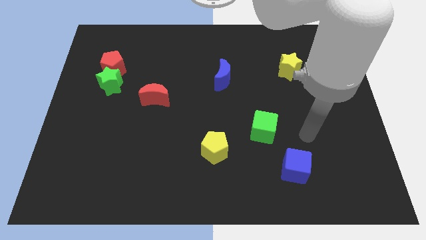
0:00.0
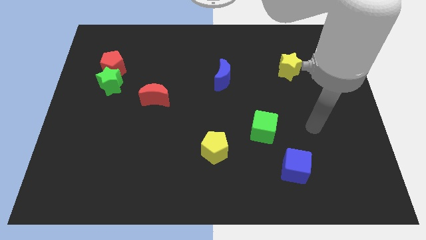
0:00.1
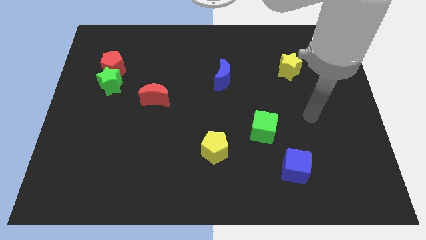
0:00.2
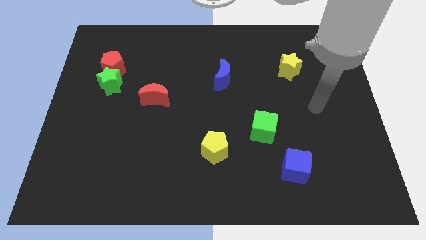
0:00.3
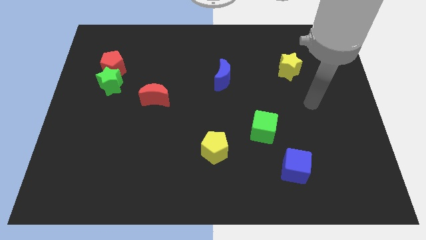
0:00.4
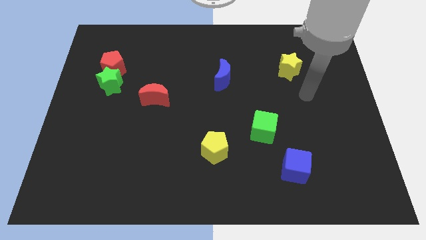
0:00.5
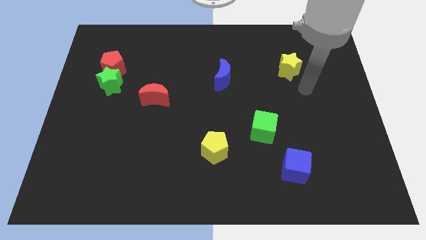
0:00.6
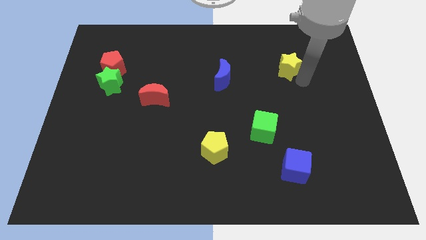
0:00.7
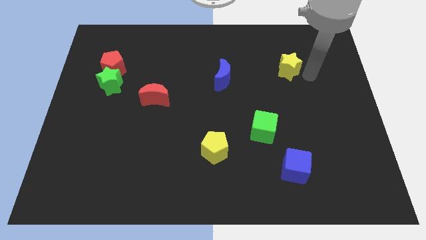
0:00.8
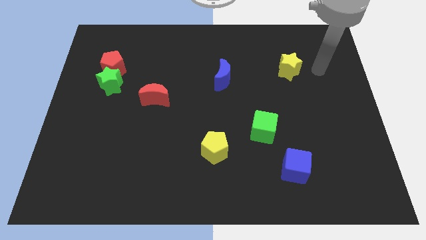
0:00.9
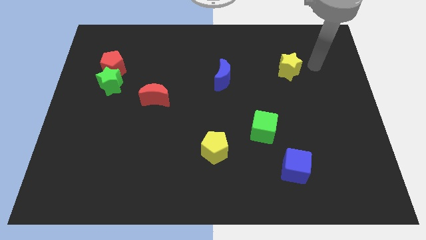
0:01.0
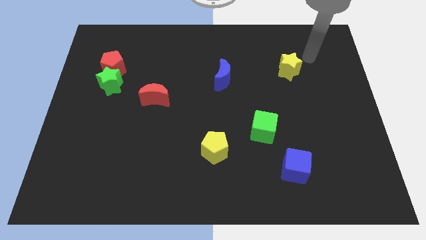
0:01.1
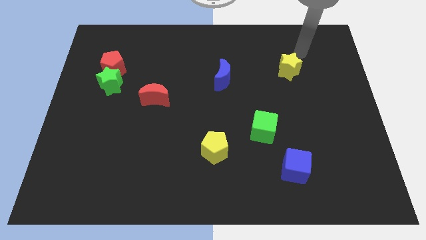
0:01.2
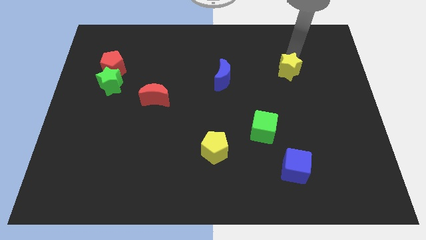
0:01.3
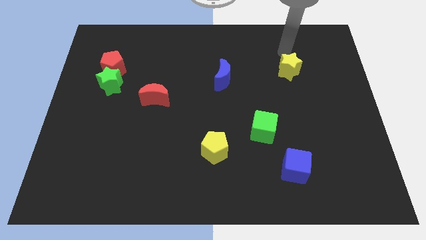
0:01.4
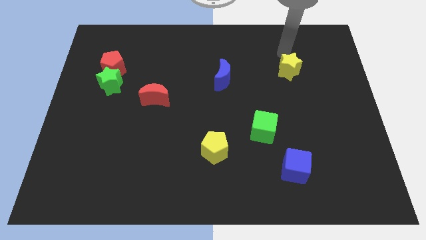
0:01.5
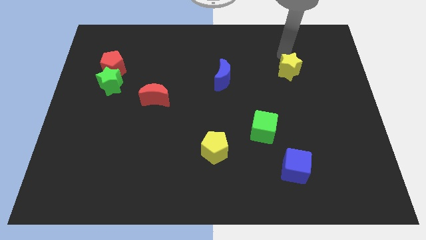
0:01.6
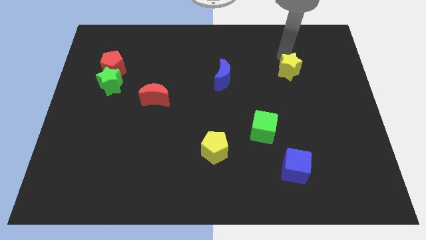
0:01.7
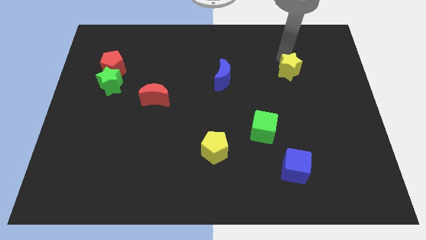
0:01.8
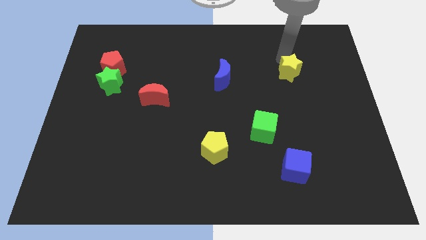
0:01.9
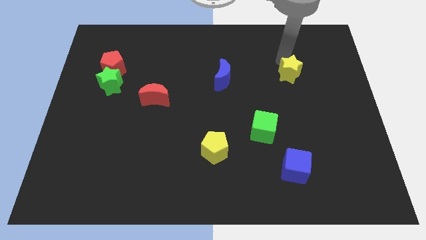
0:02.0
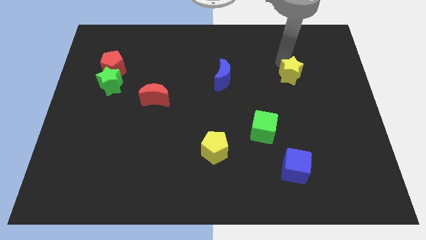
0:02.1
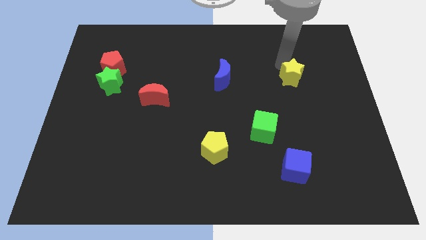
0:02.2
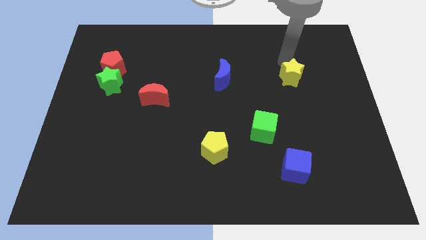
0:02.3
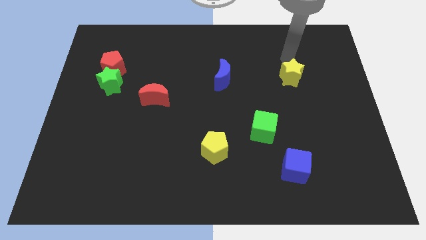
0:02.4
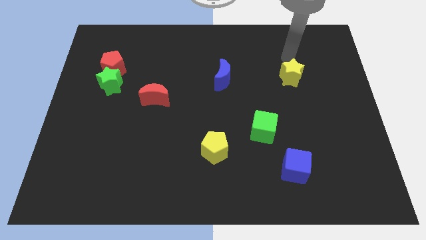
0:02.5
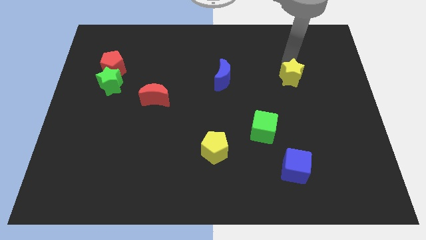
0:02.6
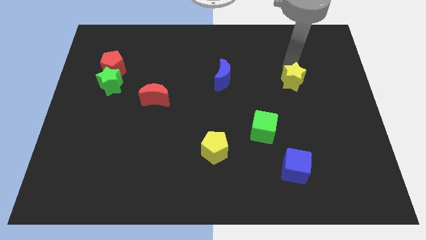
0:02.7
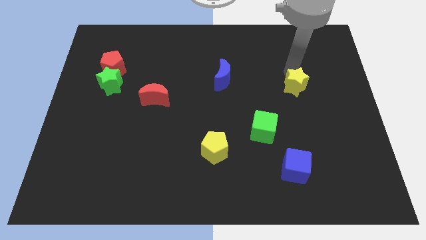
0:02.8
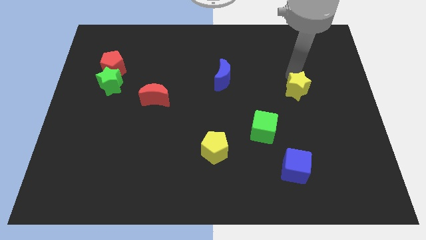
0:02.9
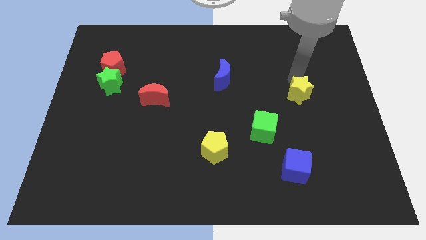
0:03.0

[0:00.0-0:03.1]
slightly slide the yellow star downwards

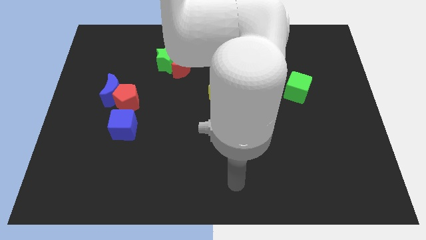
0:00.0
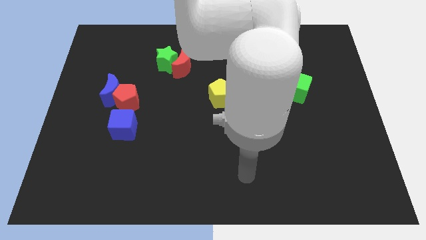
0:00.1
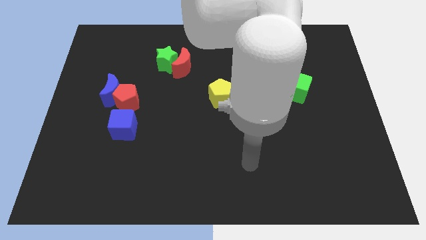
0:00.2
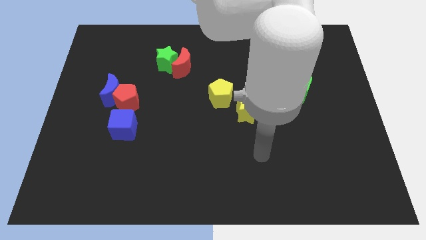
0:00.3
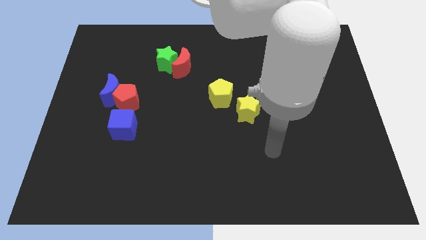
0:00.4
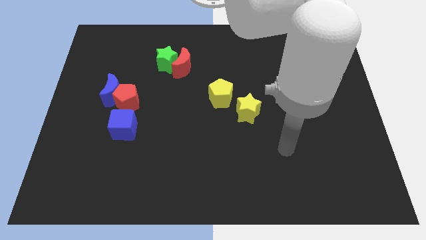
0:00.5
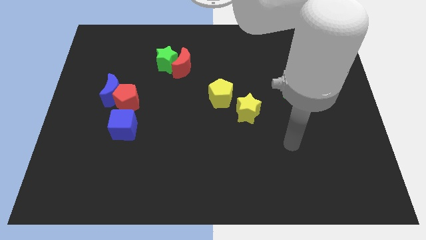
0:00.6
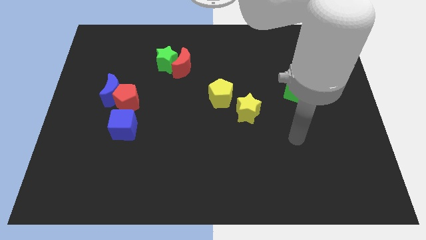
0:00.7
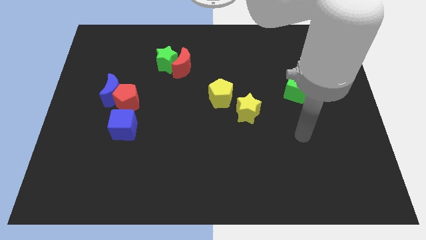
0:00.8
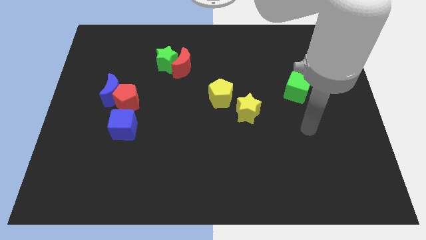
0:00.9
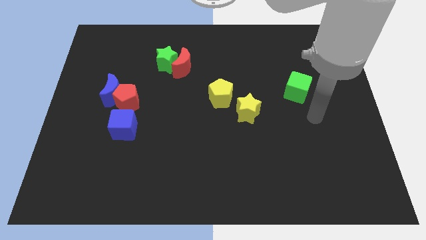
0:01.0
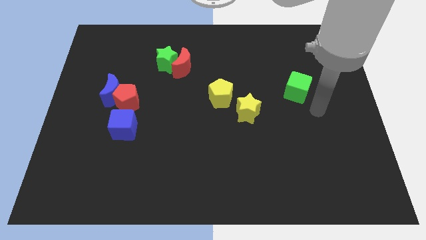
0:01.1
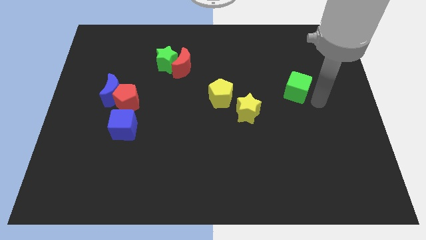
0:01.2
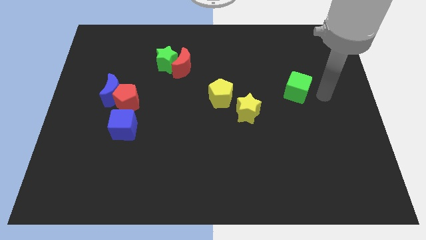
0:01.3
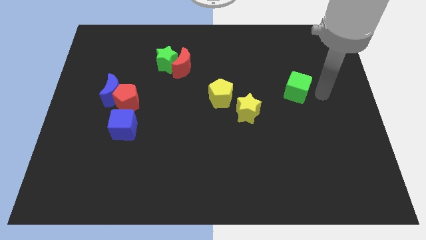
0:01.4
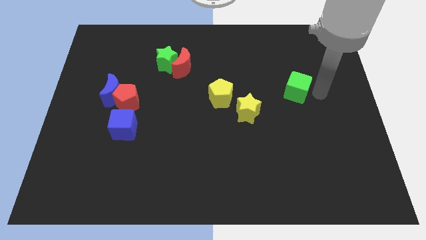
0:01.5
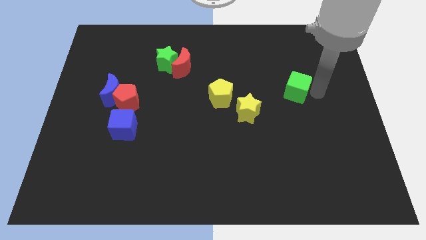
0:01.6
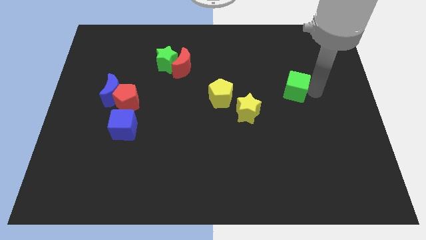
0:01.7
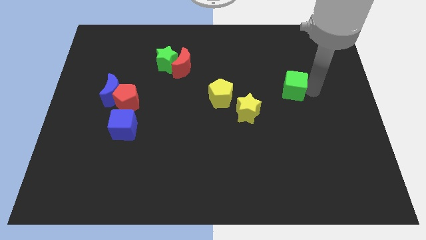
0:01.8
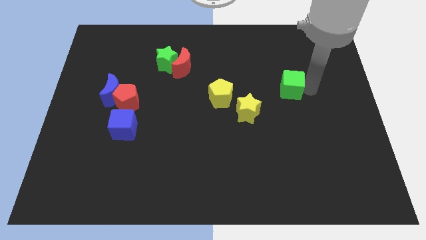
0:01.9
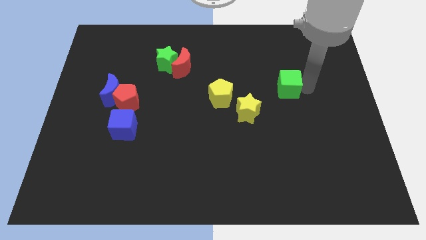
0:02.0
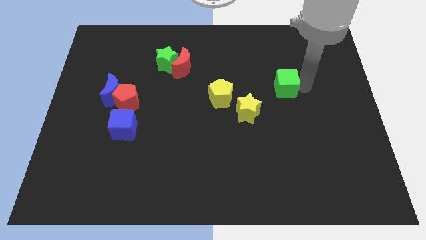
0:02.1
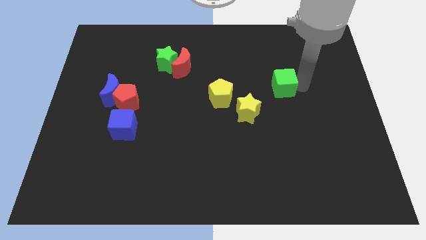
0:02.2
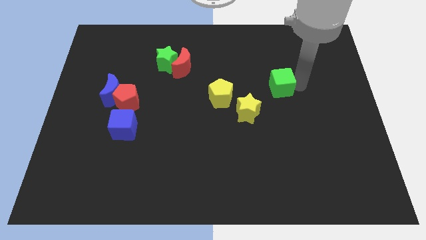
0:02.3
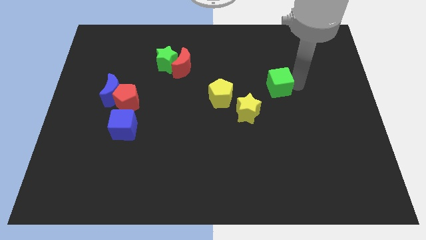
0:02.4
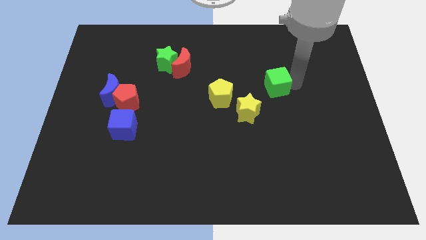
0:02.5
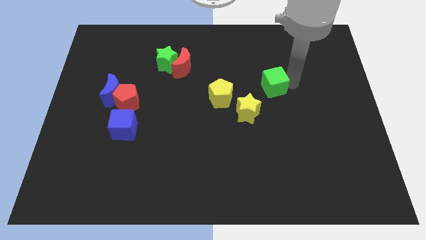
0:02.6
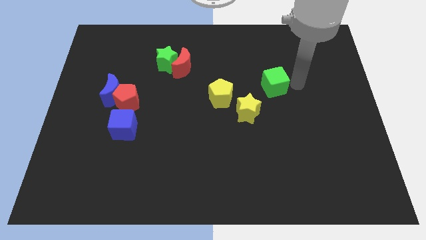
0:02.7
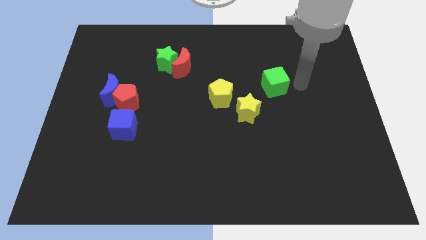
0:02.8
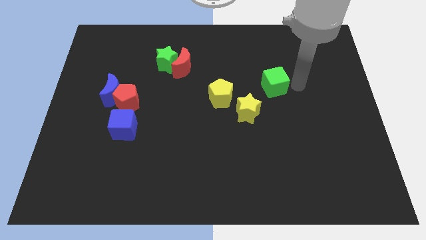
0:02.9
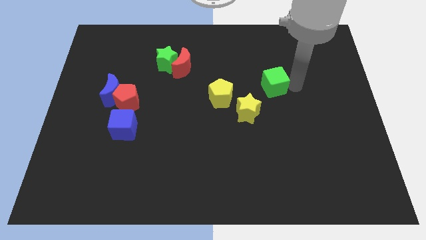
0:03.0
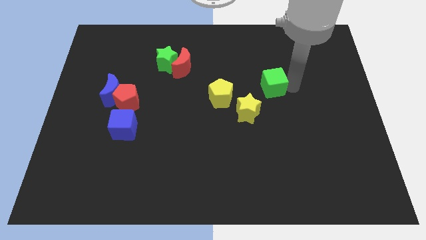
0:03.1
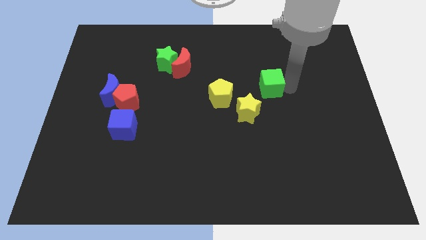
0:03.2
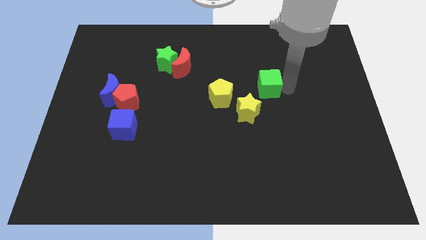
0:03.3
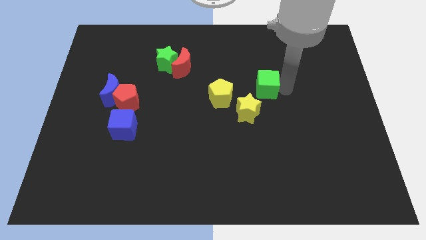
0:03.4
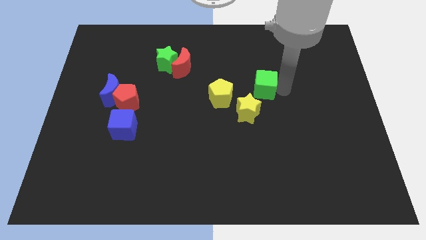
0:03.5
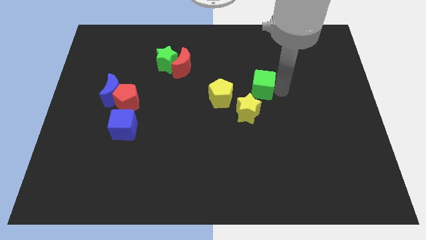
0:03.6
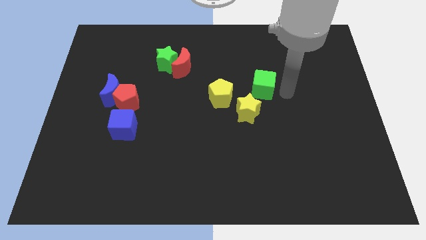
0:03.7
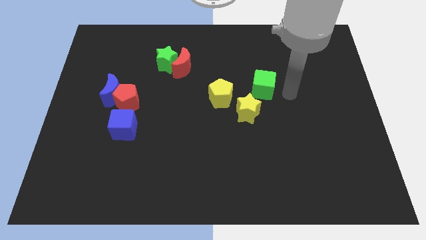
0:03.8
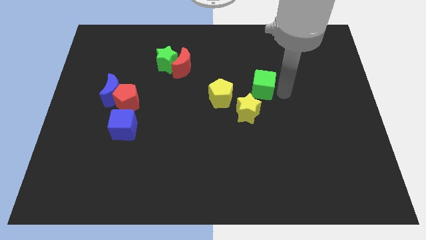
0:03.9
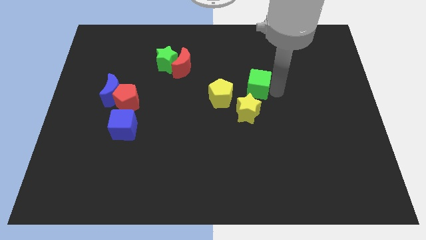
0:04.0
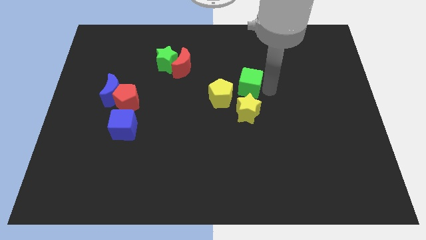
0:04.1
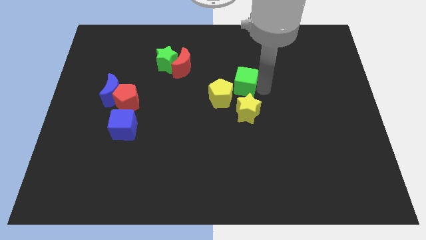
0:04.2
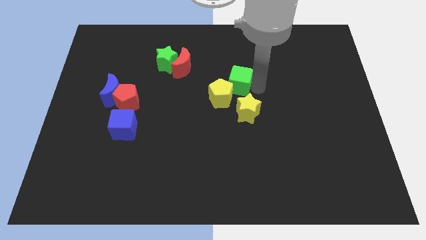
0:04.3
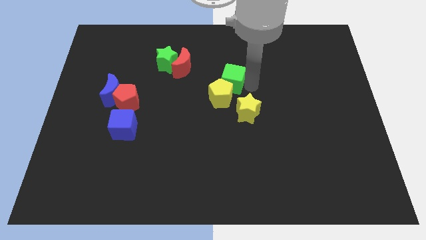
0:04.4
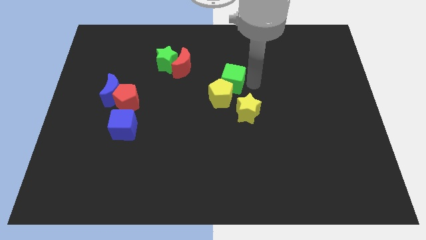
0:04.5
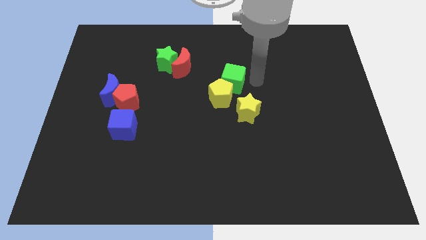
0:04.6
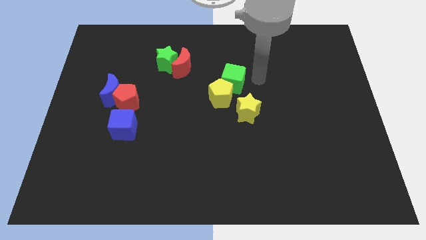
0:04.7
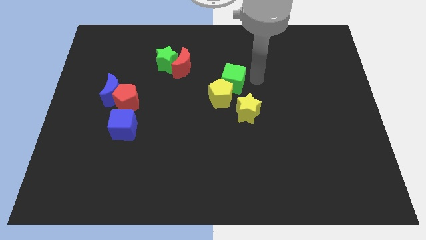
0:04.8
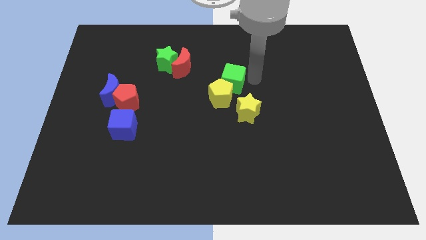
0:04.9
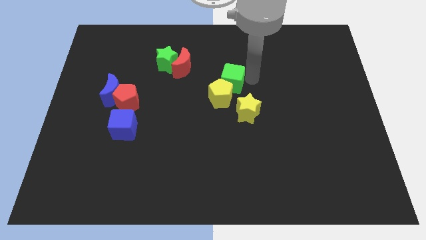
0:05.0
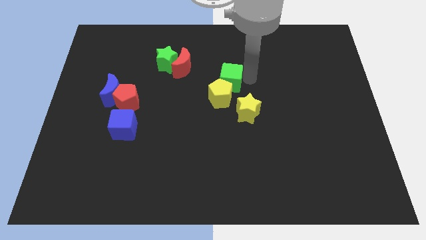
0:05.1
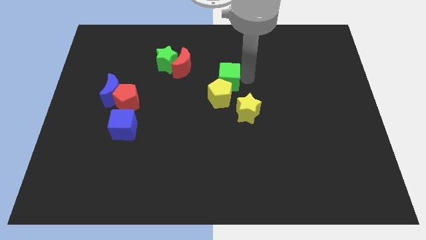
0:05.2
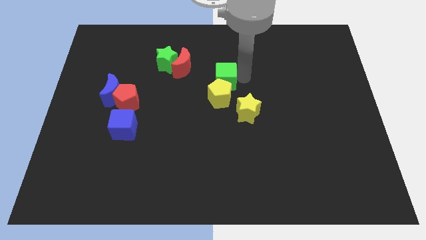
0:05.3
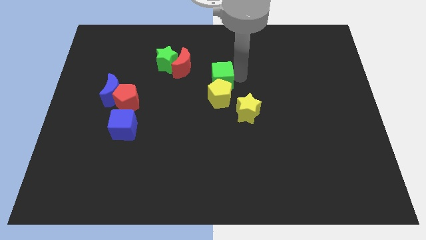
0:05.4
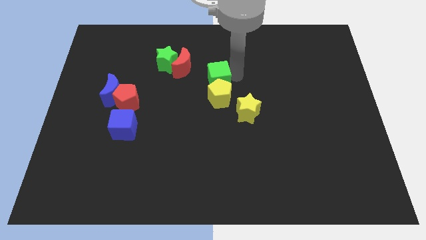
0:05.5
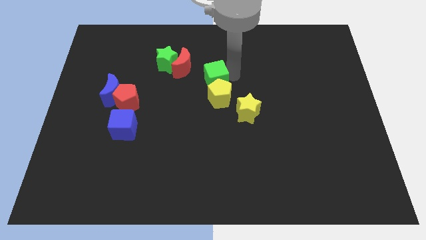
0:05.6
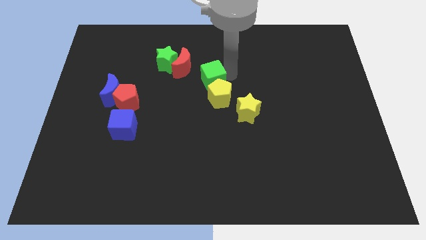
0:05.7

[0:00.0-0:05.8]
slide the green cube left
